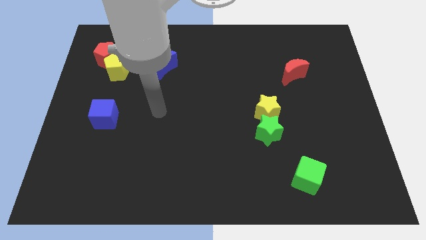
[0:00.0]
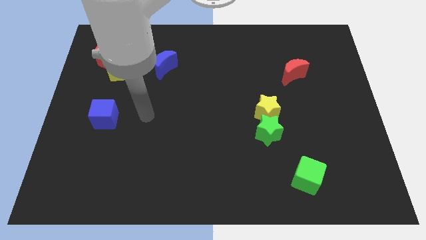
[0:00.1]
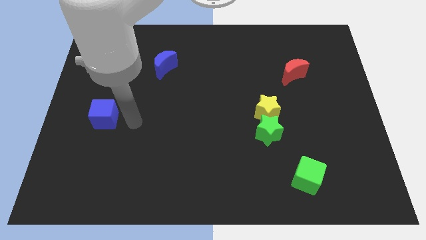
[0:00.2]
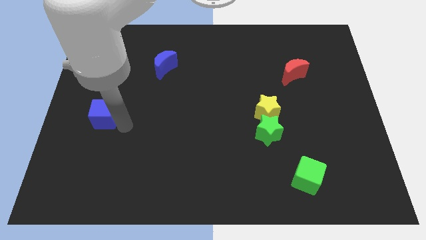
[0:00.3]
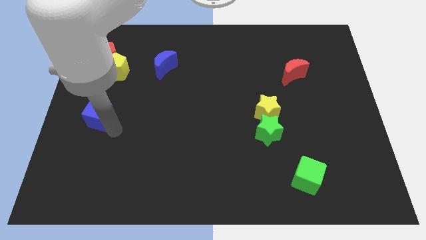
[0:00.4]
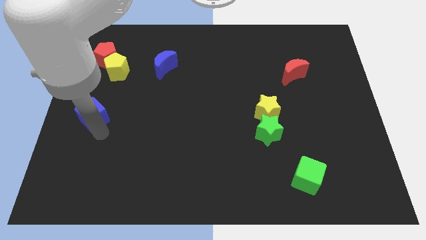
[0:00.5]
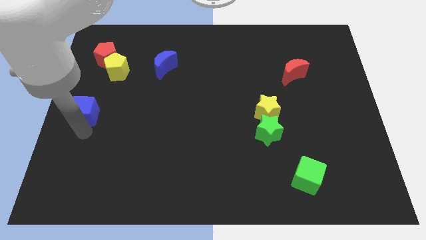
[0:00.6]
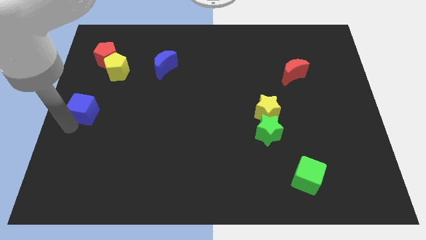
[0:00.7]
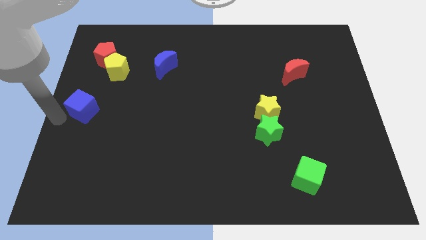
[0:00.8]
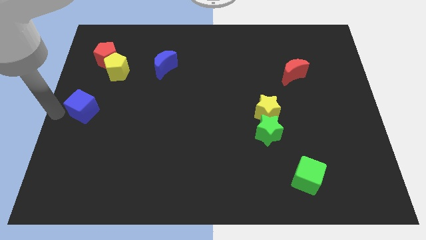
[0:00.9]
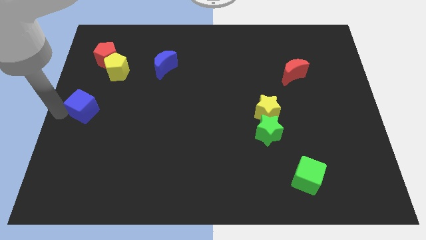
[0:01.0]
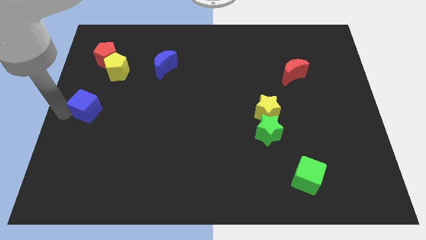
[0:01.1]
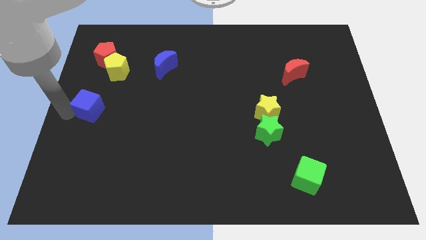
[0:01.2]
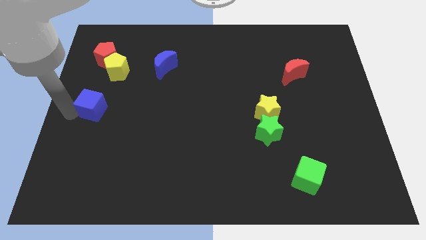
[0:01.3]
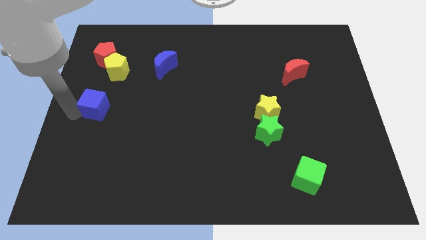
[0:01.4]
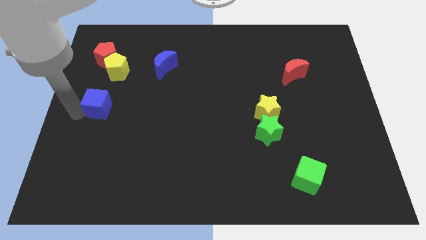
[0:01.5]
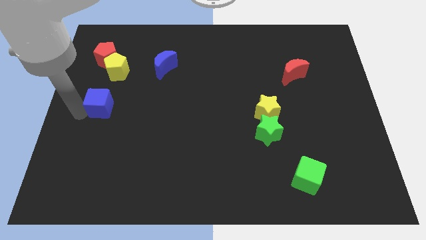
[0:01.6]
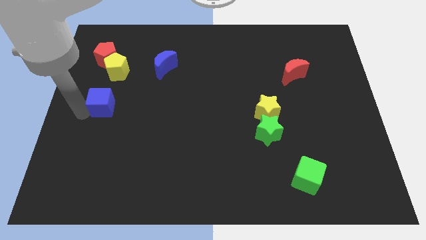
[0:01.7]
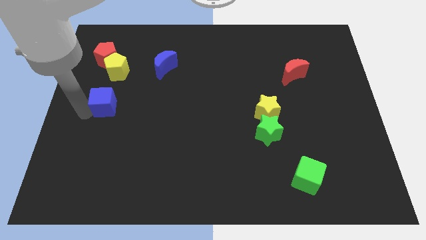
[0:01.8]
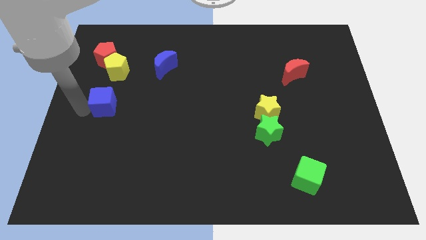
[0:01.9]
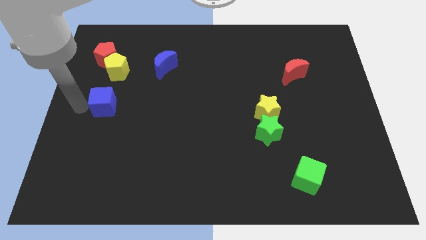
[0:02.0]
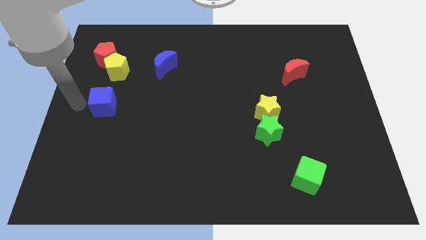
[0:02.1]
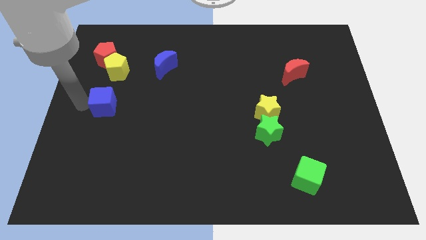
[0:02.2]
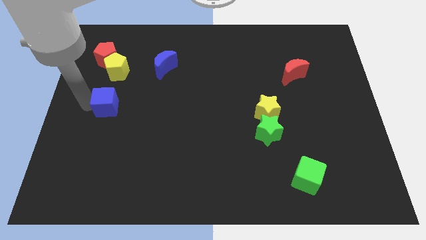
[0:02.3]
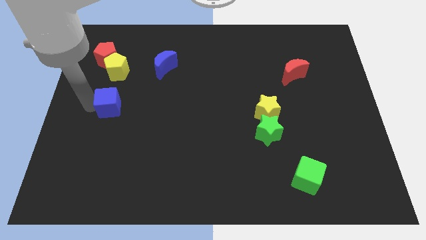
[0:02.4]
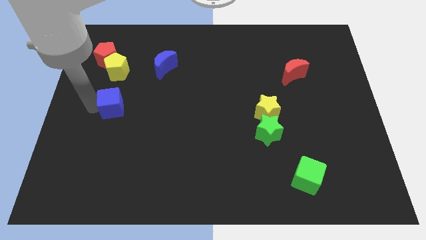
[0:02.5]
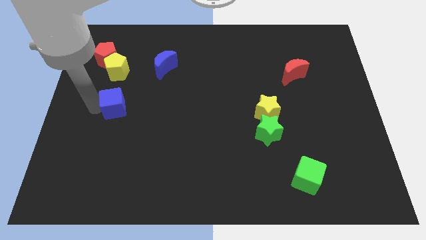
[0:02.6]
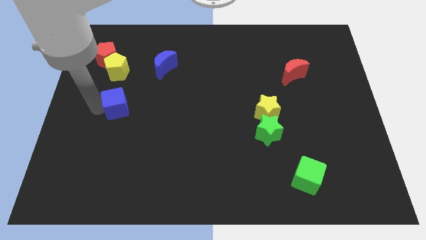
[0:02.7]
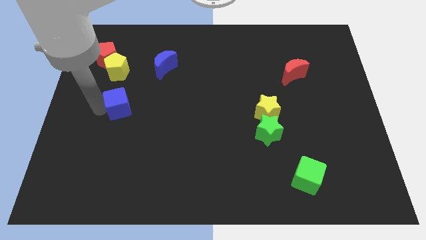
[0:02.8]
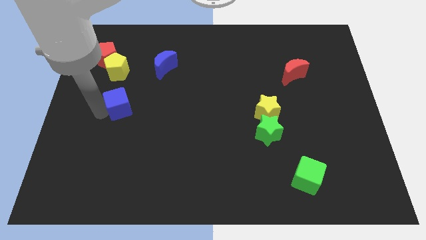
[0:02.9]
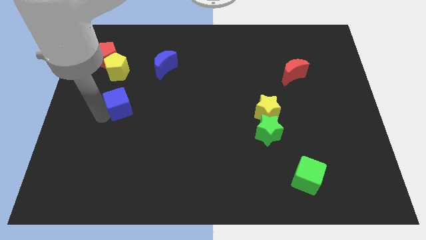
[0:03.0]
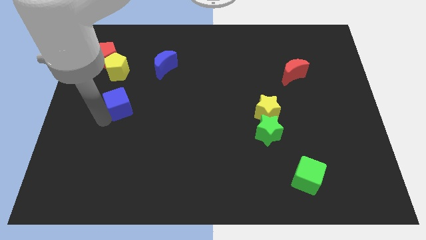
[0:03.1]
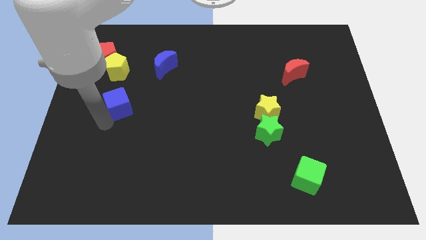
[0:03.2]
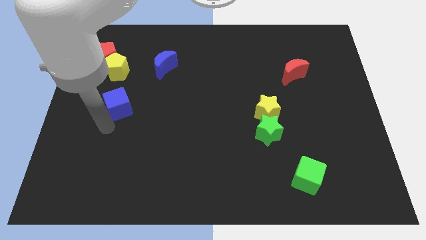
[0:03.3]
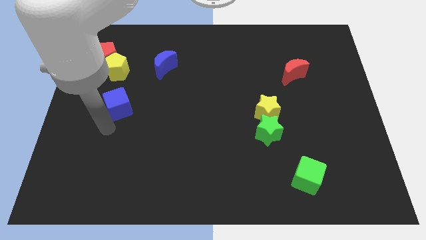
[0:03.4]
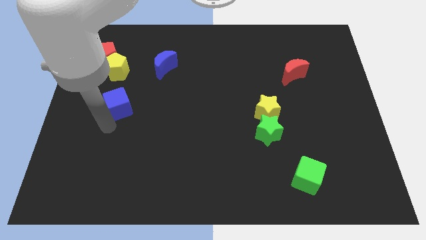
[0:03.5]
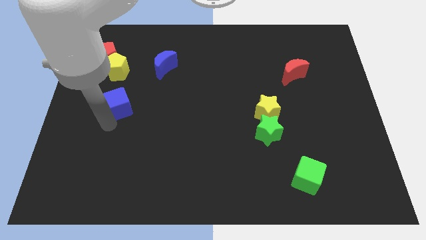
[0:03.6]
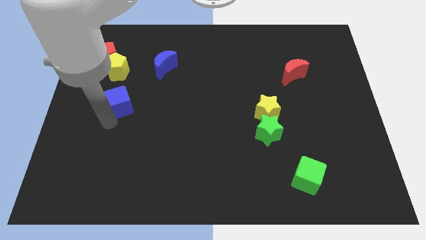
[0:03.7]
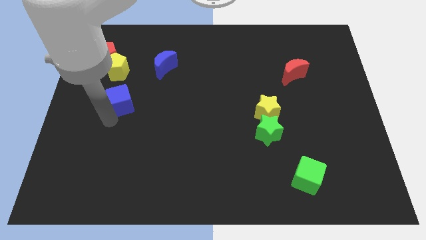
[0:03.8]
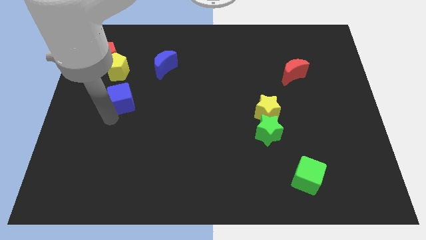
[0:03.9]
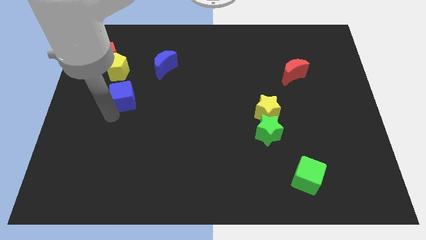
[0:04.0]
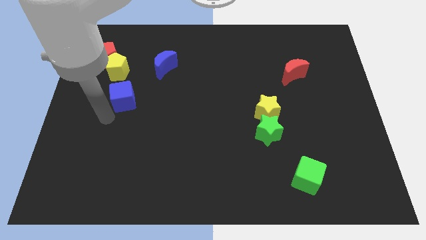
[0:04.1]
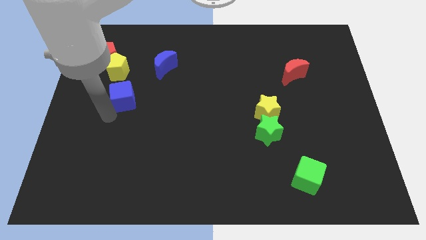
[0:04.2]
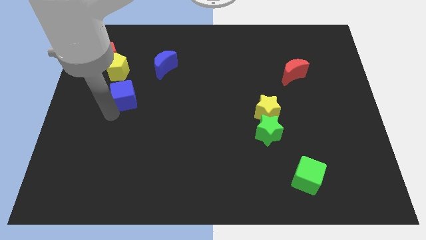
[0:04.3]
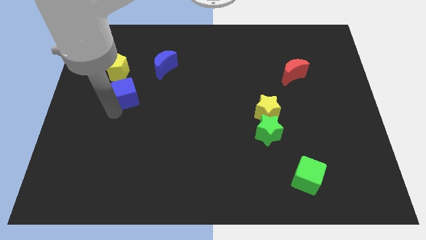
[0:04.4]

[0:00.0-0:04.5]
put the blue cube diagonally down and to the left of the blue moon

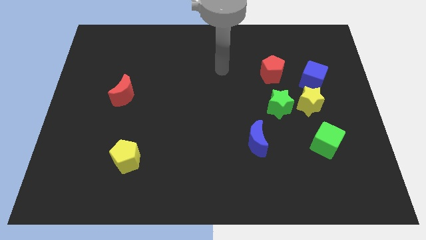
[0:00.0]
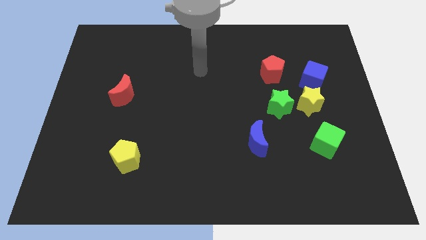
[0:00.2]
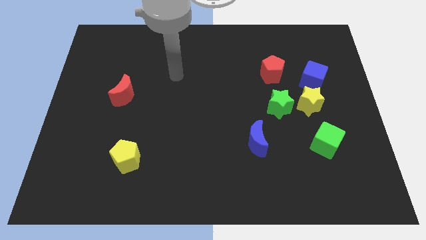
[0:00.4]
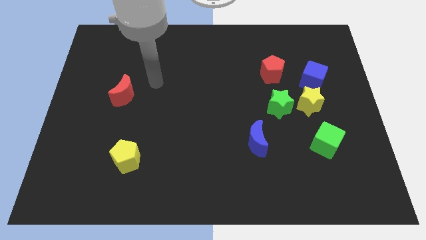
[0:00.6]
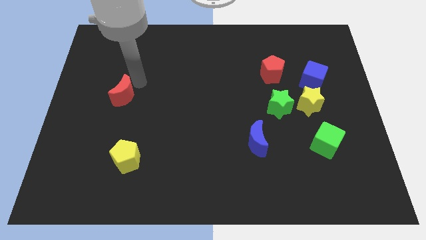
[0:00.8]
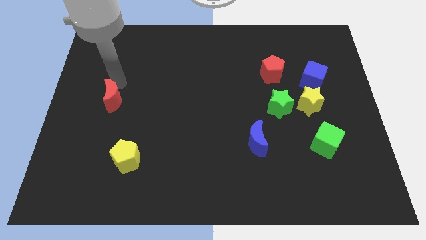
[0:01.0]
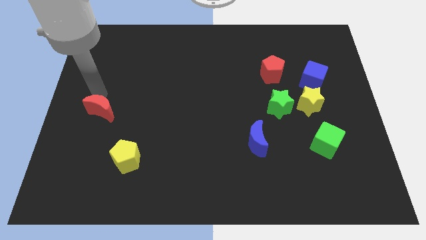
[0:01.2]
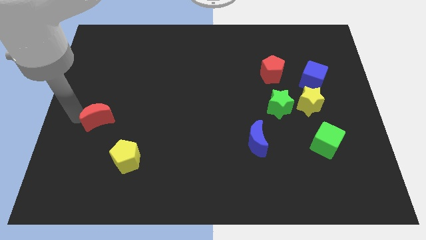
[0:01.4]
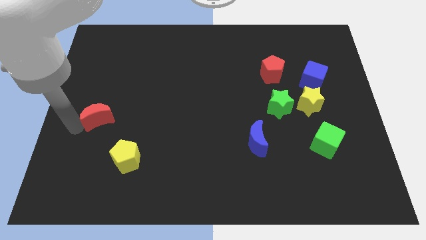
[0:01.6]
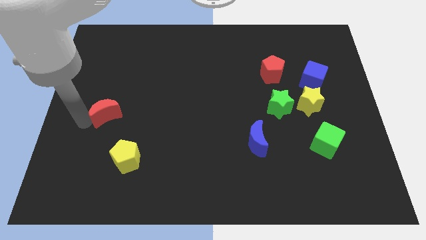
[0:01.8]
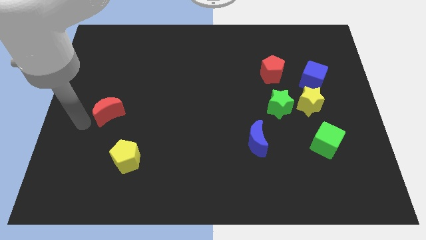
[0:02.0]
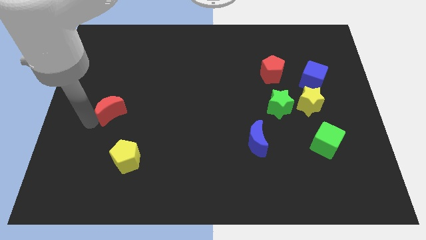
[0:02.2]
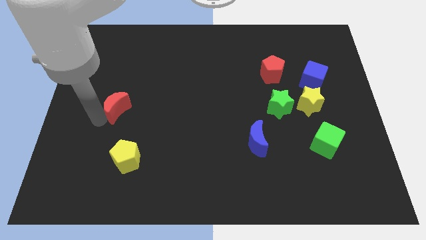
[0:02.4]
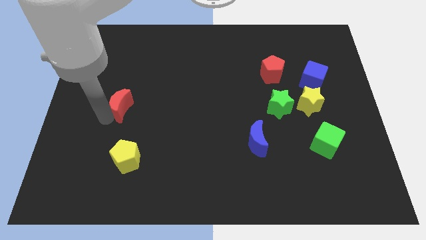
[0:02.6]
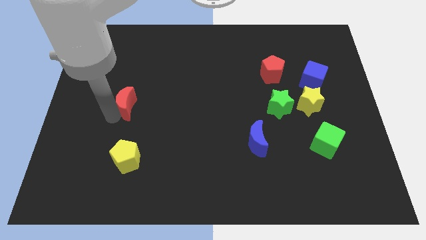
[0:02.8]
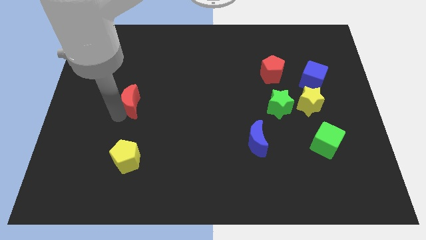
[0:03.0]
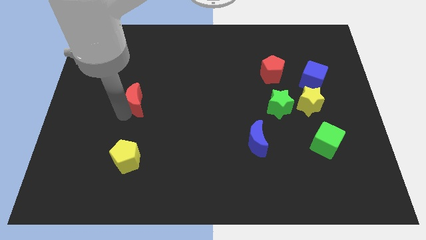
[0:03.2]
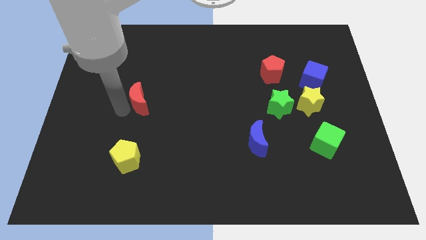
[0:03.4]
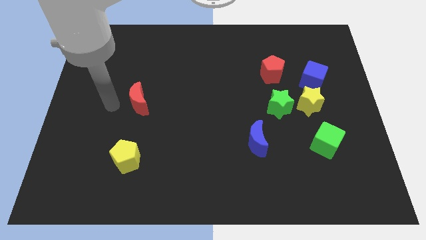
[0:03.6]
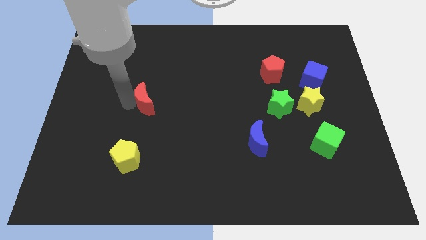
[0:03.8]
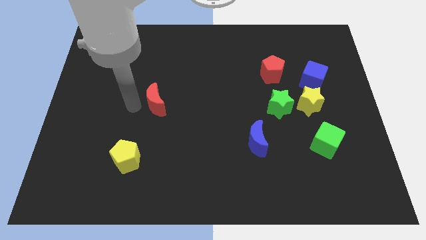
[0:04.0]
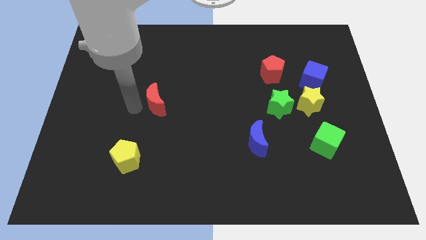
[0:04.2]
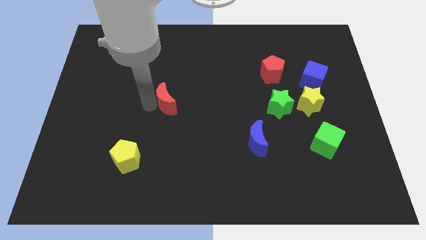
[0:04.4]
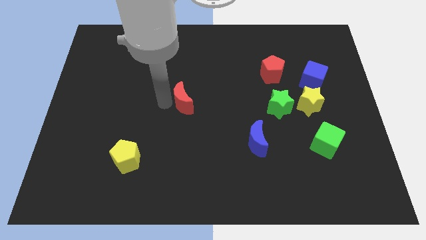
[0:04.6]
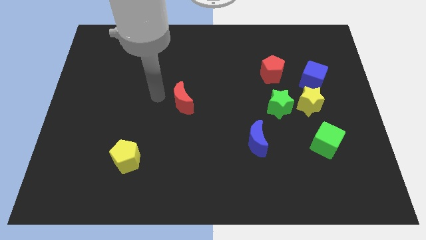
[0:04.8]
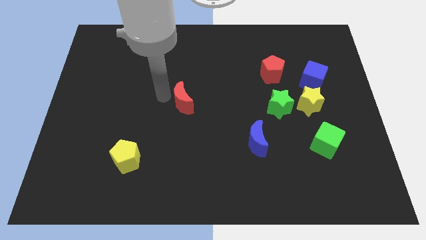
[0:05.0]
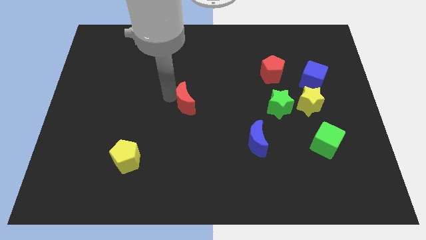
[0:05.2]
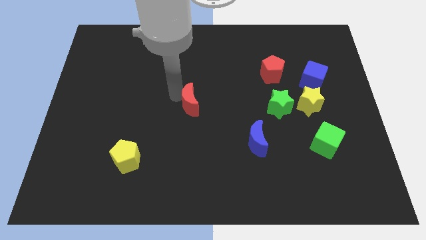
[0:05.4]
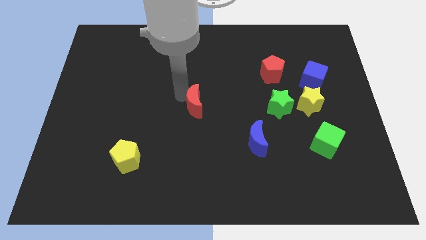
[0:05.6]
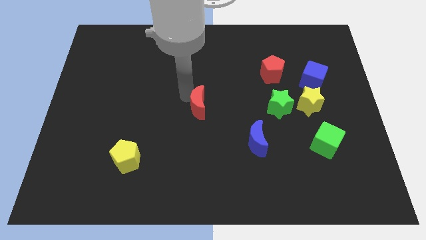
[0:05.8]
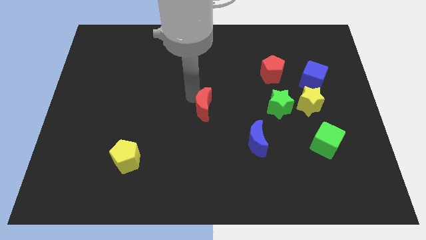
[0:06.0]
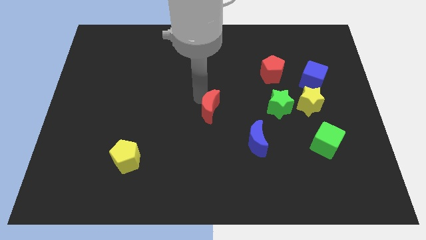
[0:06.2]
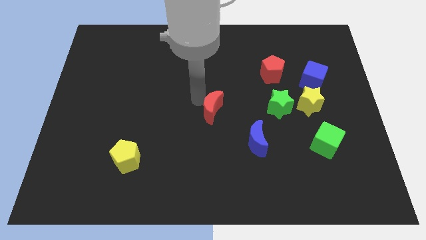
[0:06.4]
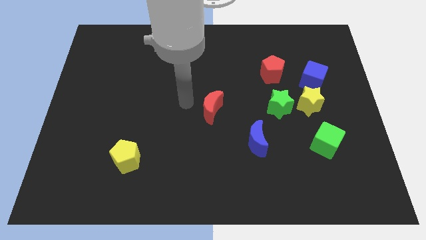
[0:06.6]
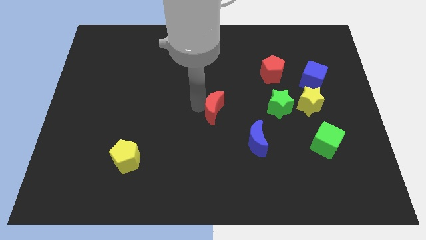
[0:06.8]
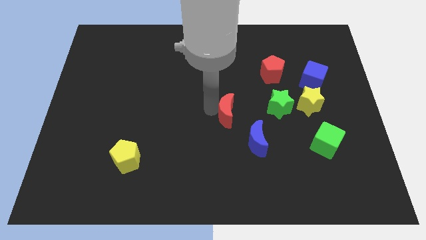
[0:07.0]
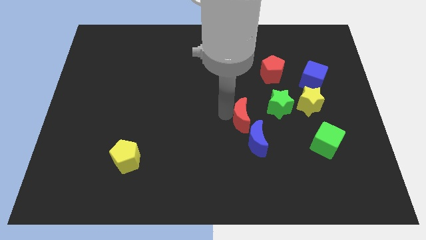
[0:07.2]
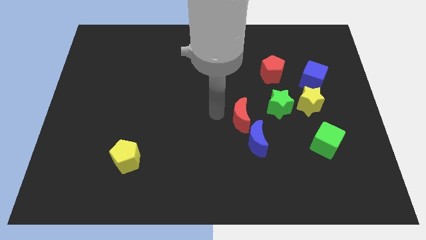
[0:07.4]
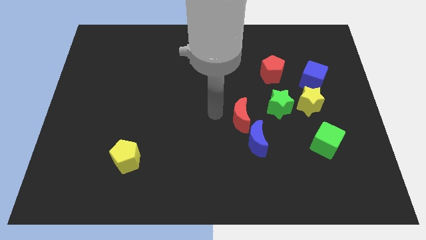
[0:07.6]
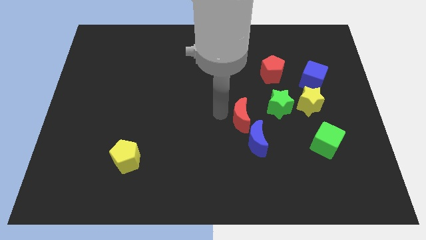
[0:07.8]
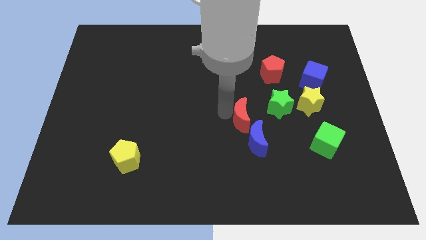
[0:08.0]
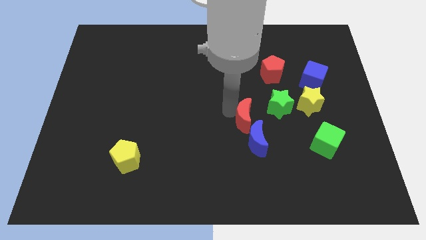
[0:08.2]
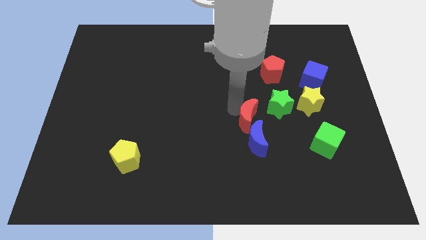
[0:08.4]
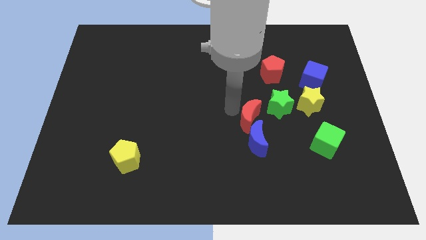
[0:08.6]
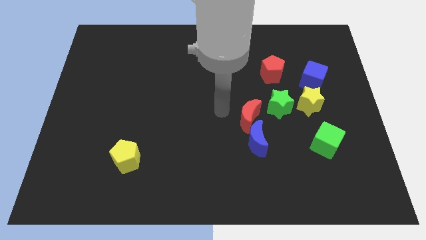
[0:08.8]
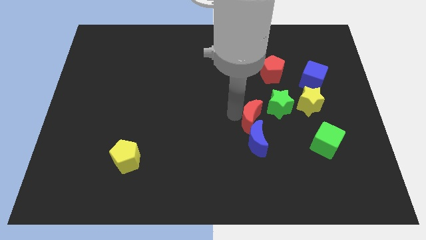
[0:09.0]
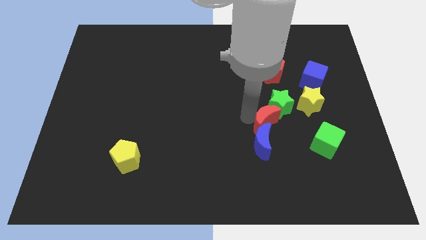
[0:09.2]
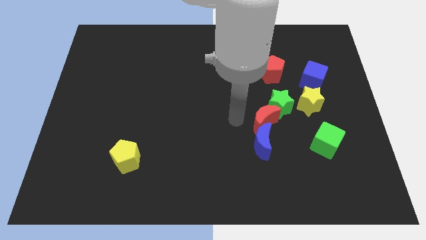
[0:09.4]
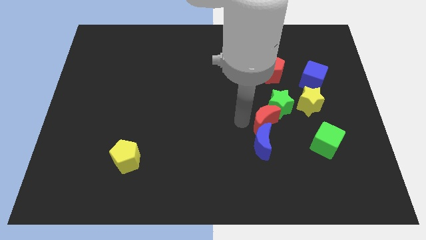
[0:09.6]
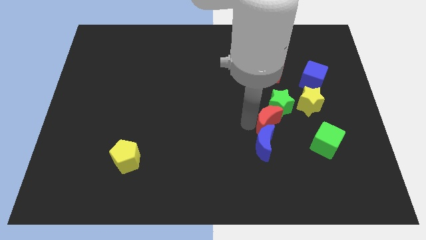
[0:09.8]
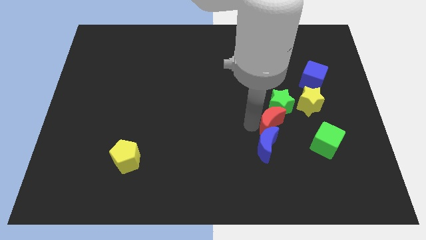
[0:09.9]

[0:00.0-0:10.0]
put the red moon to the bottom left of the yellow star
